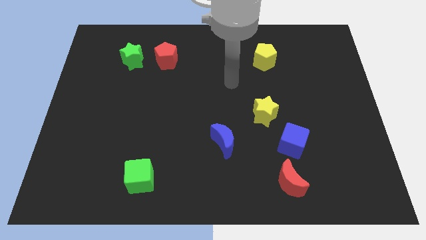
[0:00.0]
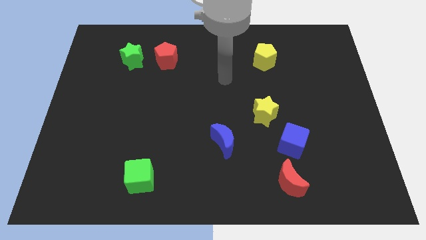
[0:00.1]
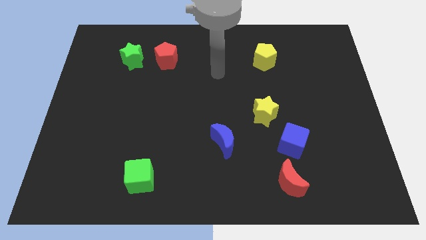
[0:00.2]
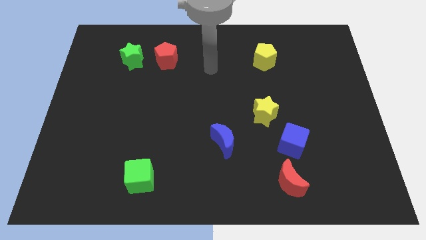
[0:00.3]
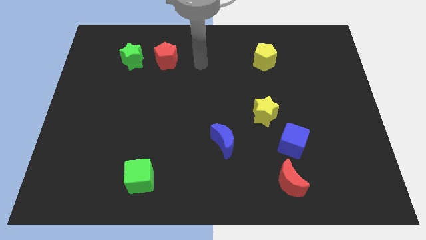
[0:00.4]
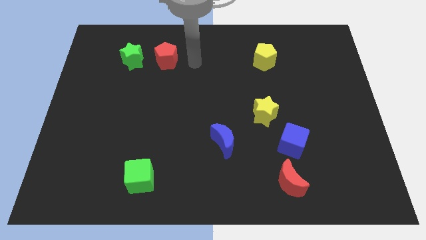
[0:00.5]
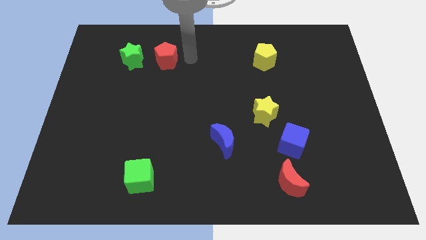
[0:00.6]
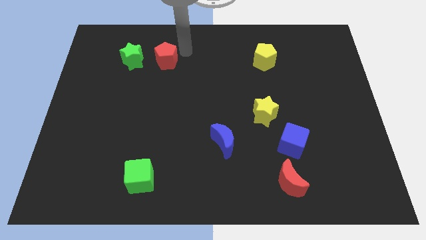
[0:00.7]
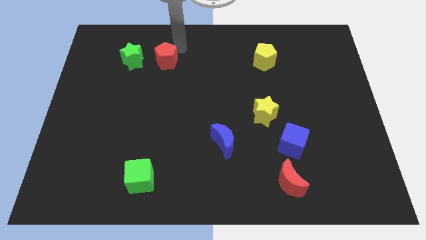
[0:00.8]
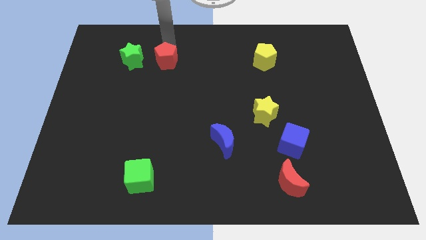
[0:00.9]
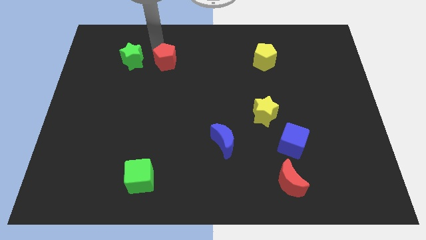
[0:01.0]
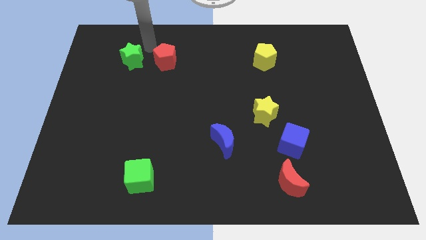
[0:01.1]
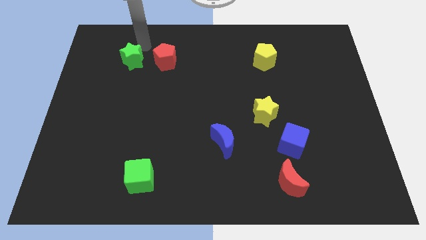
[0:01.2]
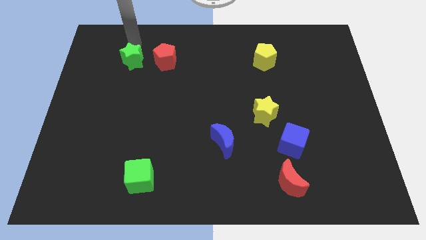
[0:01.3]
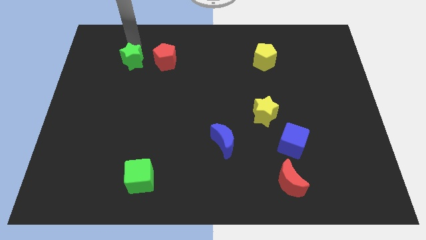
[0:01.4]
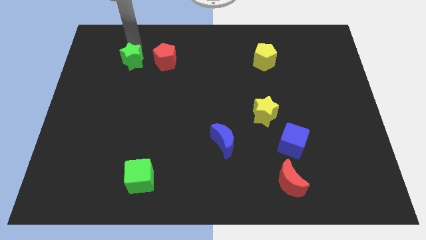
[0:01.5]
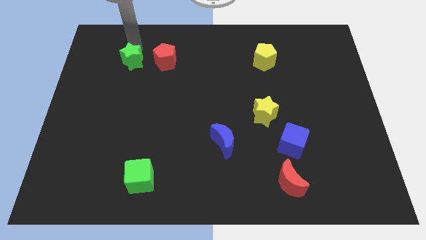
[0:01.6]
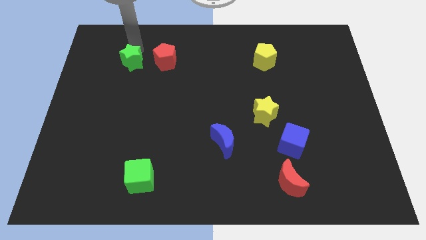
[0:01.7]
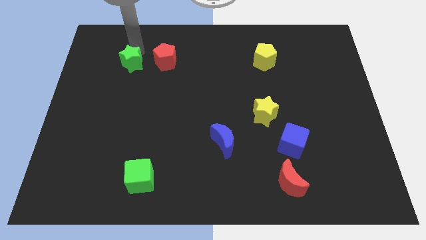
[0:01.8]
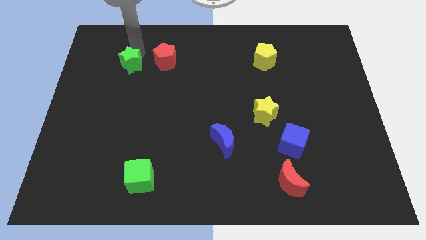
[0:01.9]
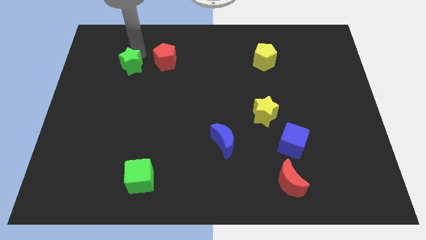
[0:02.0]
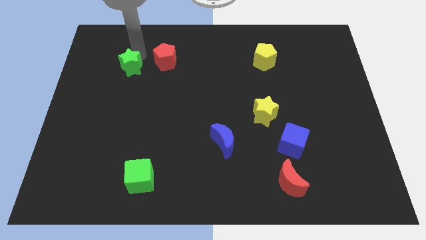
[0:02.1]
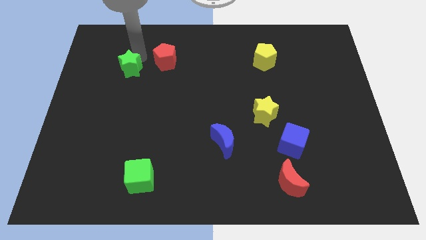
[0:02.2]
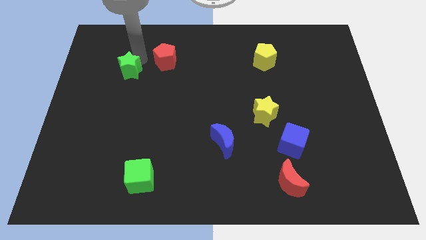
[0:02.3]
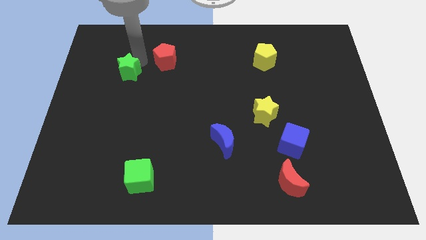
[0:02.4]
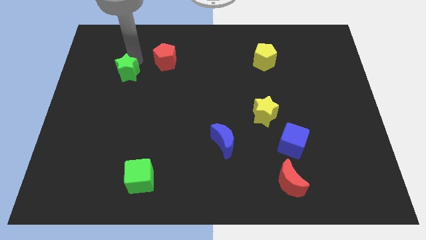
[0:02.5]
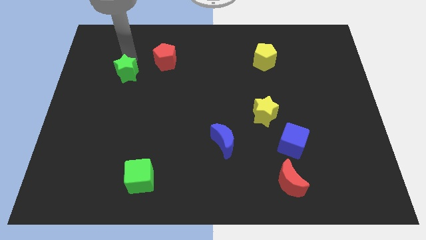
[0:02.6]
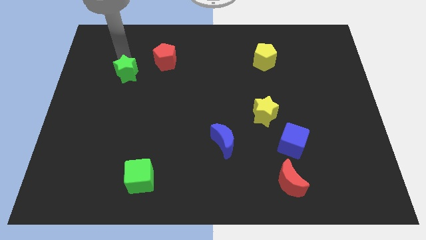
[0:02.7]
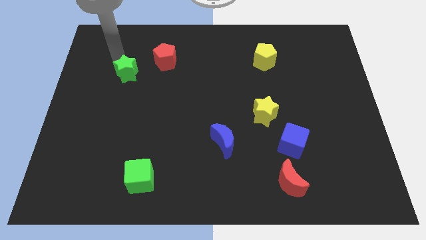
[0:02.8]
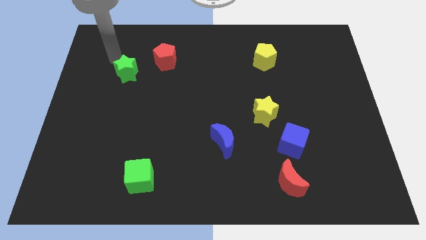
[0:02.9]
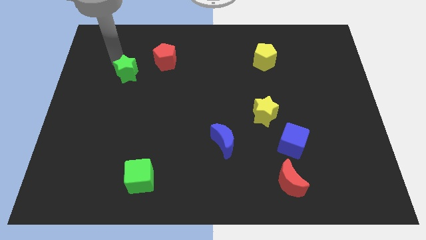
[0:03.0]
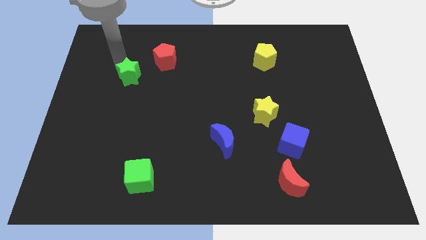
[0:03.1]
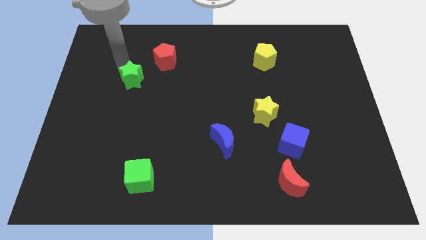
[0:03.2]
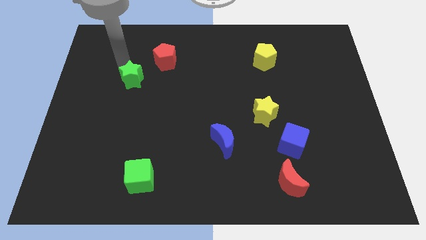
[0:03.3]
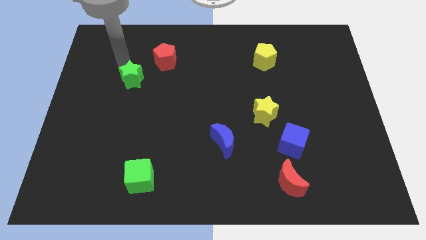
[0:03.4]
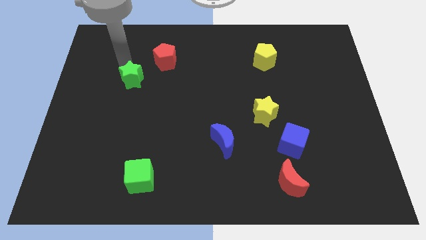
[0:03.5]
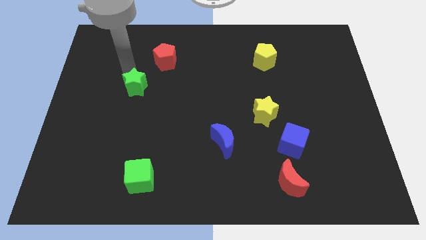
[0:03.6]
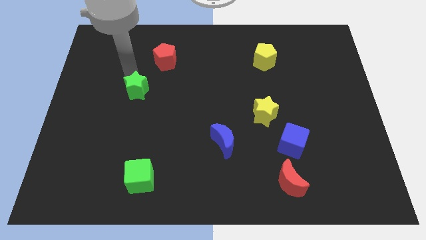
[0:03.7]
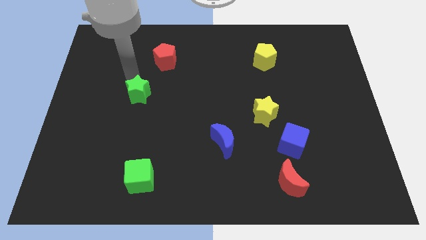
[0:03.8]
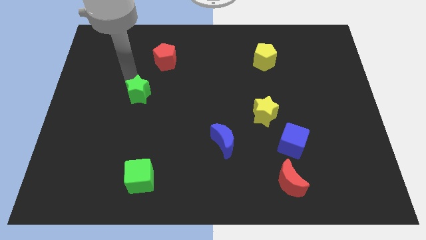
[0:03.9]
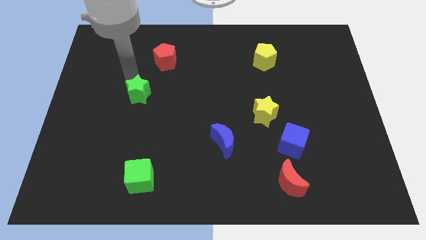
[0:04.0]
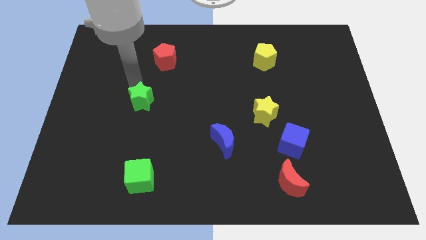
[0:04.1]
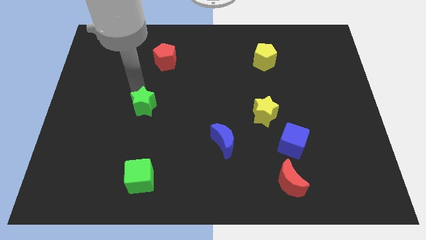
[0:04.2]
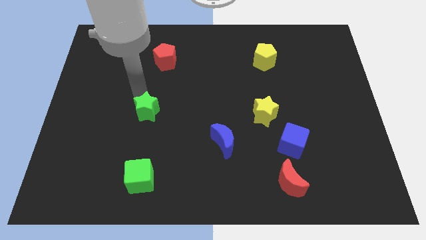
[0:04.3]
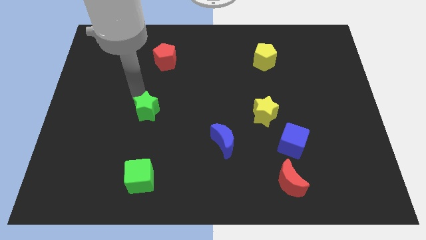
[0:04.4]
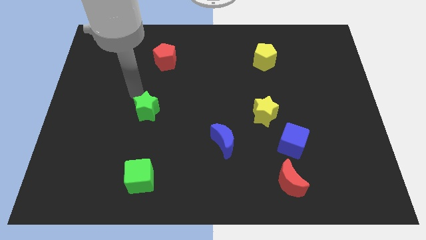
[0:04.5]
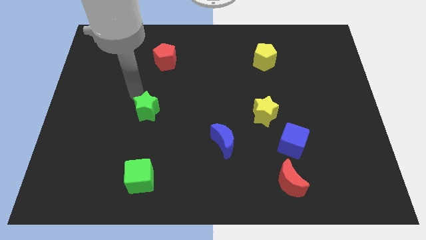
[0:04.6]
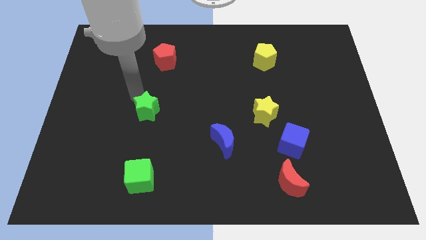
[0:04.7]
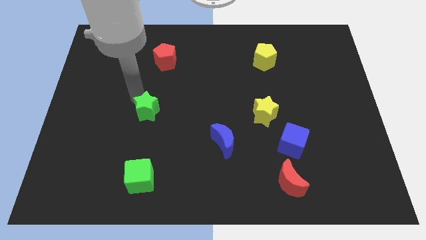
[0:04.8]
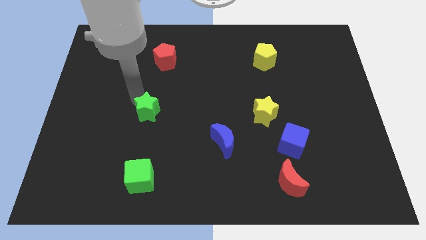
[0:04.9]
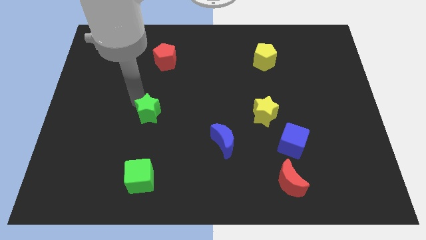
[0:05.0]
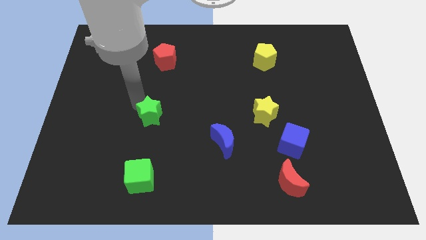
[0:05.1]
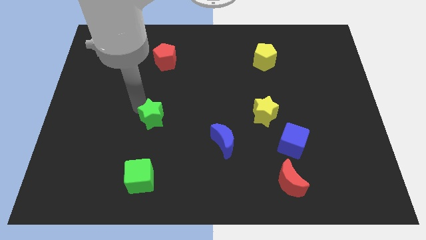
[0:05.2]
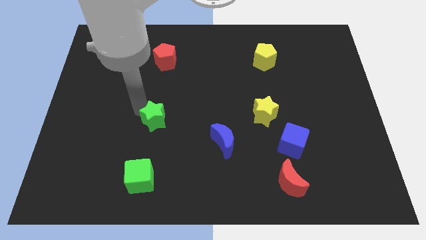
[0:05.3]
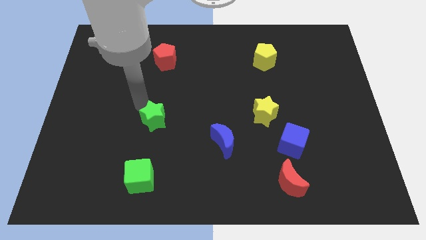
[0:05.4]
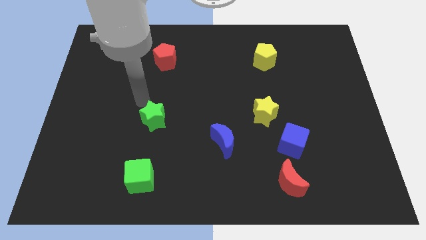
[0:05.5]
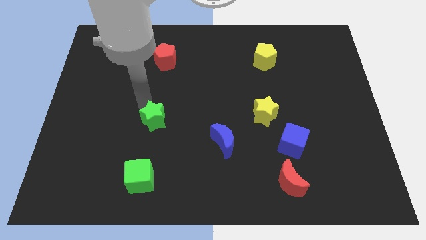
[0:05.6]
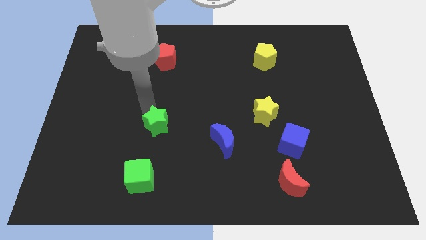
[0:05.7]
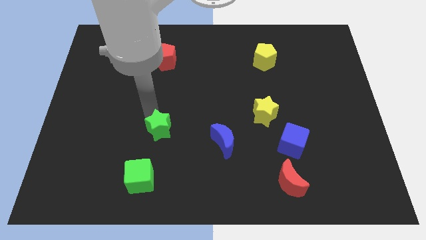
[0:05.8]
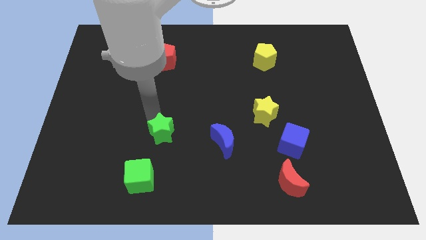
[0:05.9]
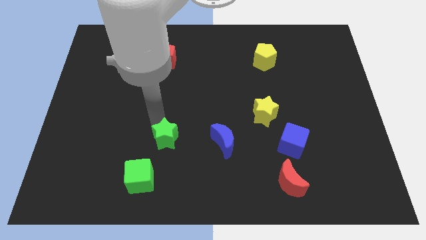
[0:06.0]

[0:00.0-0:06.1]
put the green star diagonally up and to the right of the green cube

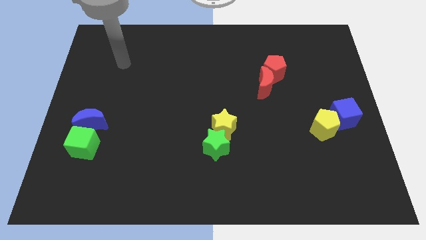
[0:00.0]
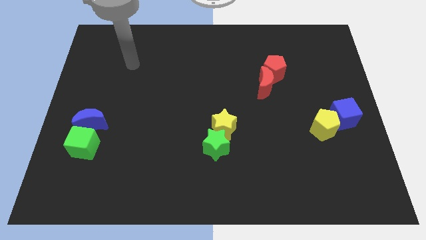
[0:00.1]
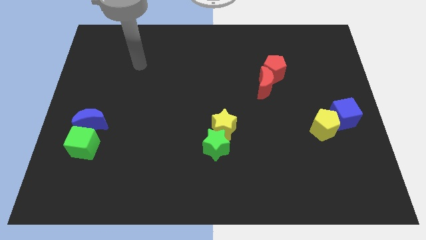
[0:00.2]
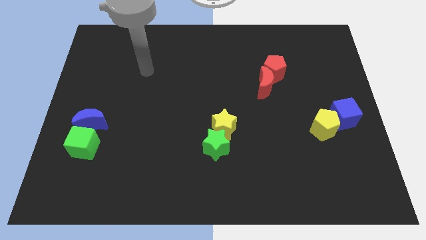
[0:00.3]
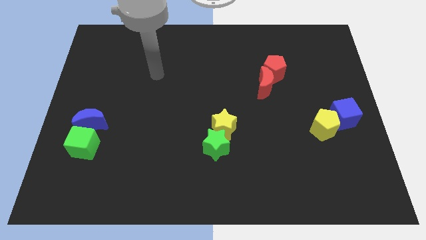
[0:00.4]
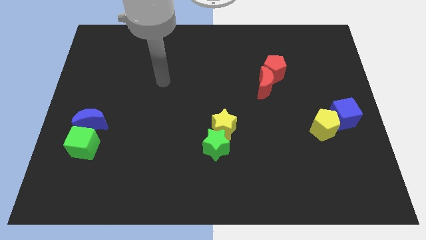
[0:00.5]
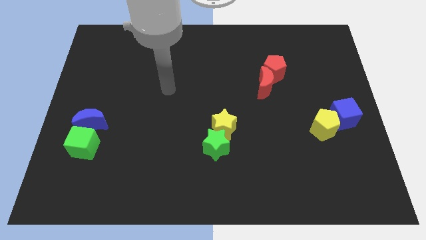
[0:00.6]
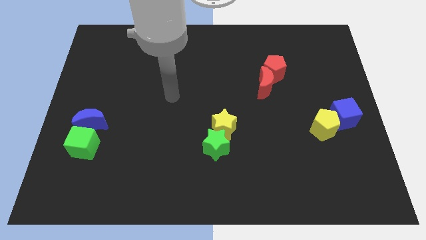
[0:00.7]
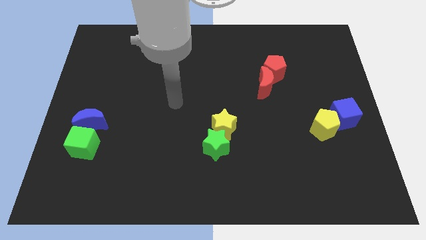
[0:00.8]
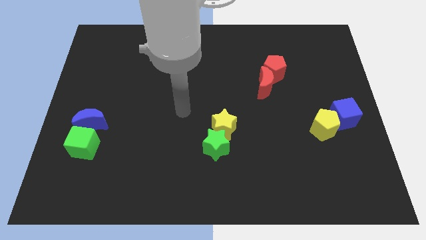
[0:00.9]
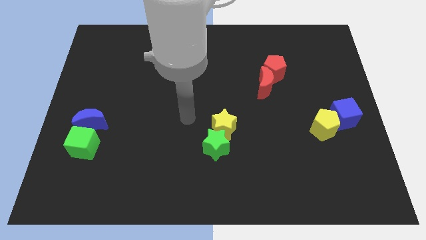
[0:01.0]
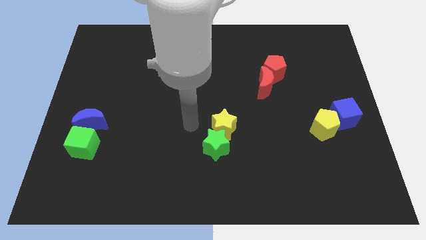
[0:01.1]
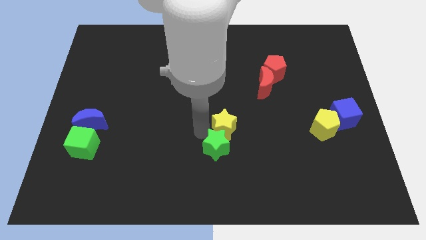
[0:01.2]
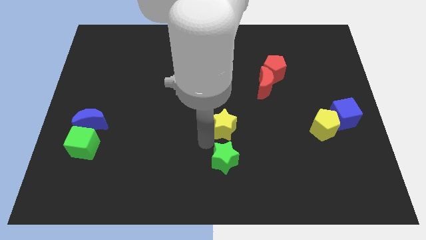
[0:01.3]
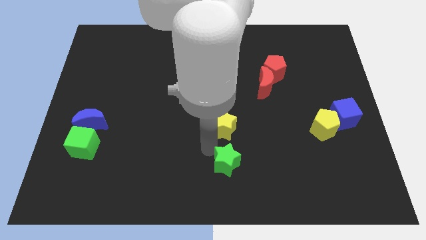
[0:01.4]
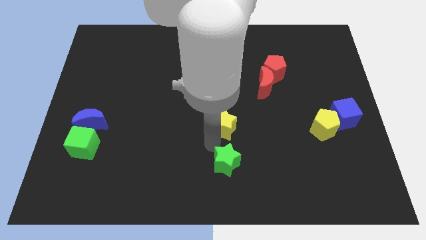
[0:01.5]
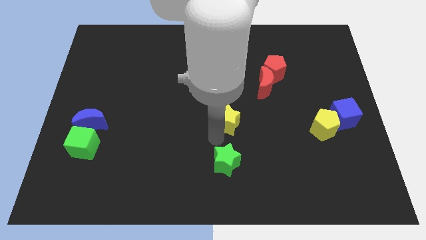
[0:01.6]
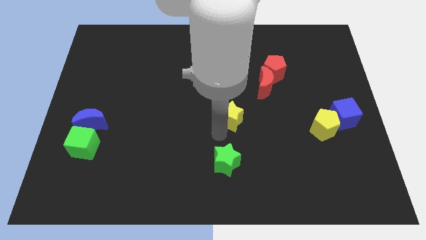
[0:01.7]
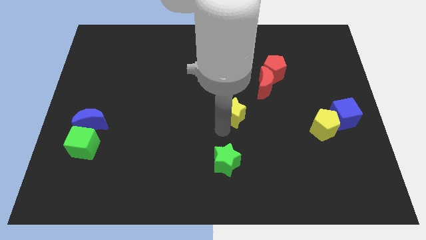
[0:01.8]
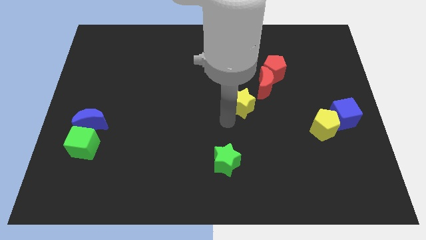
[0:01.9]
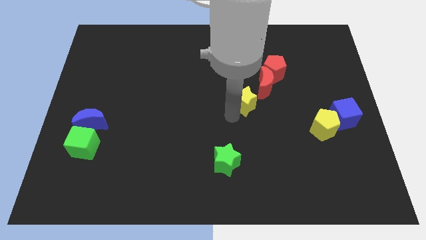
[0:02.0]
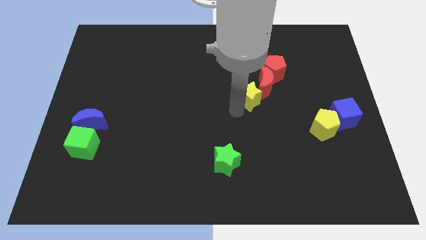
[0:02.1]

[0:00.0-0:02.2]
put the yellow star to the bottom left of the red pentagon
